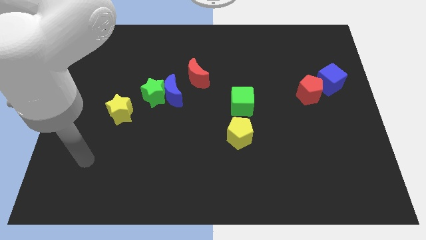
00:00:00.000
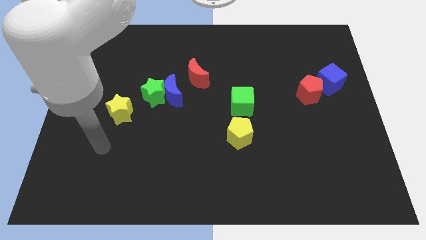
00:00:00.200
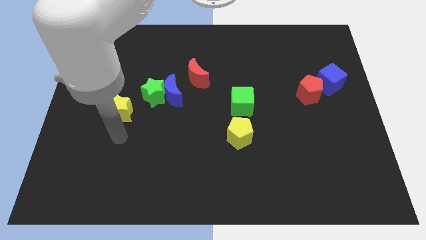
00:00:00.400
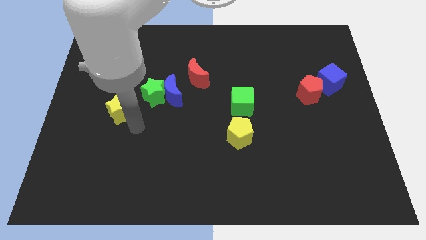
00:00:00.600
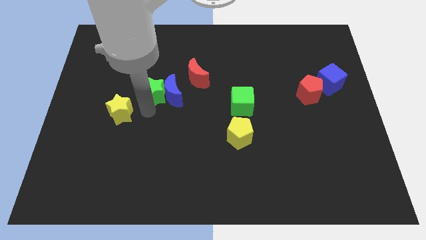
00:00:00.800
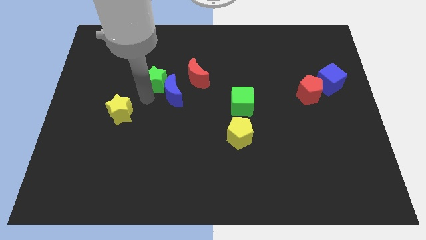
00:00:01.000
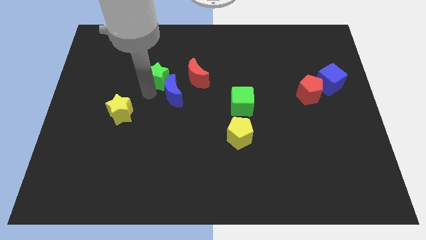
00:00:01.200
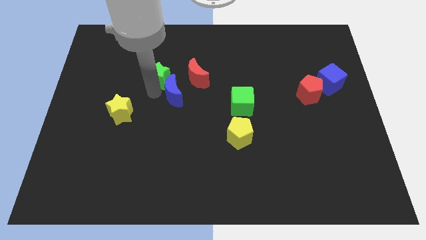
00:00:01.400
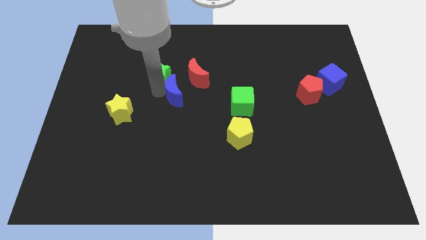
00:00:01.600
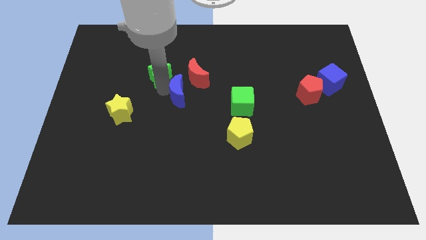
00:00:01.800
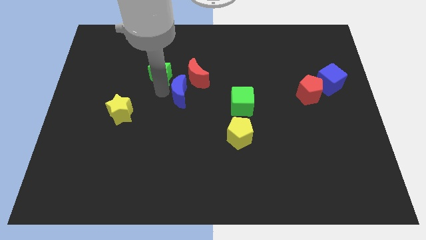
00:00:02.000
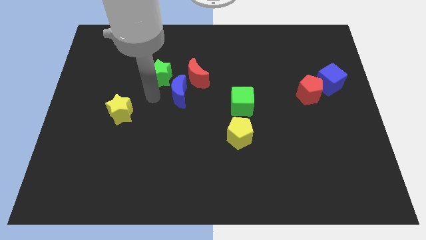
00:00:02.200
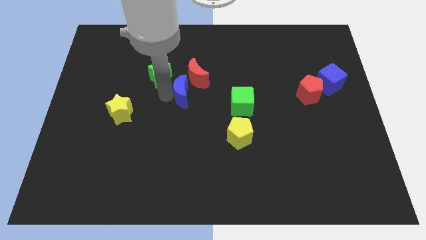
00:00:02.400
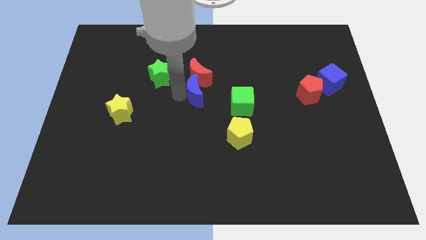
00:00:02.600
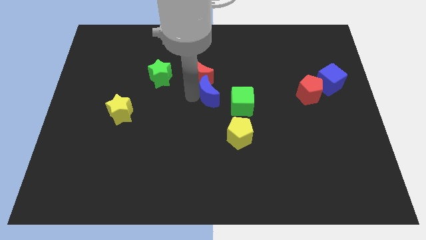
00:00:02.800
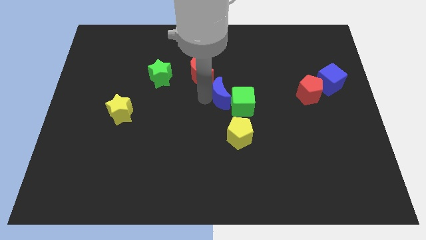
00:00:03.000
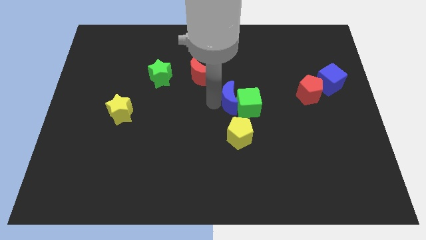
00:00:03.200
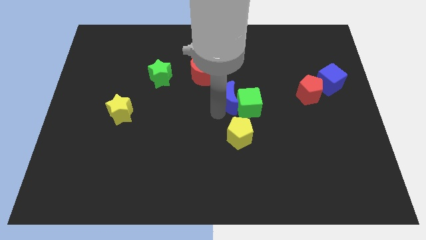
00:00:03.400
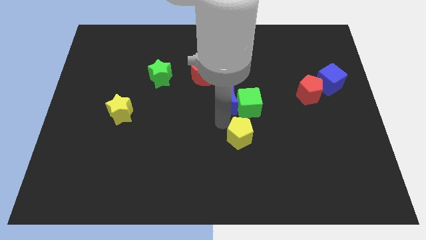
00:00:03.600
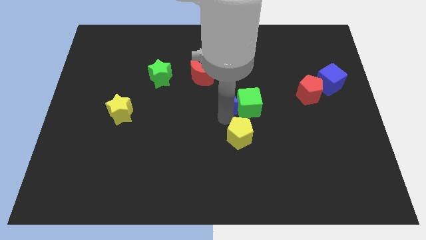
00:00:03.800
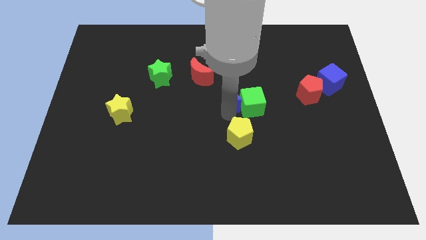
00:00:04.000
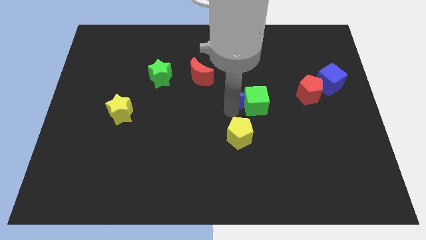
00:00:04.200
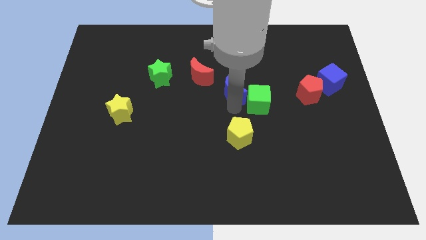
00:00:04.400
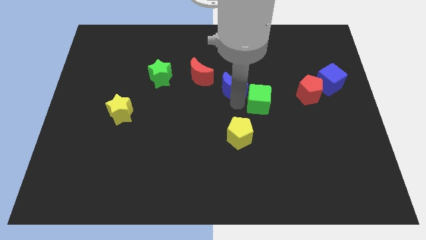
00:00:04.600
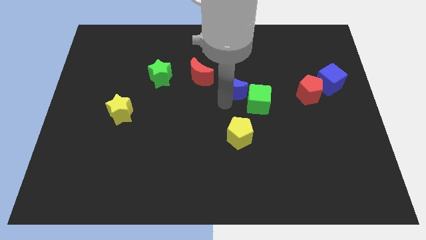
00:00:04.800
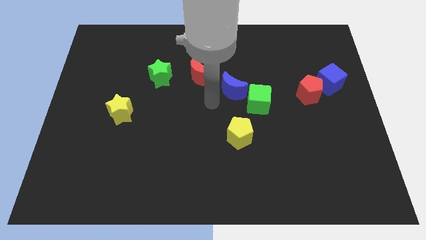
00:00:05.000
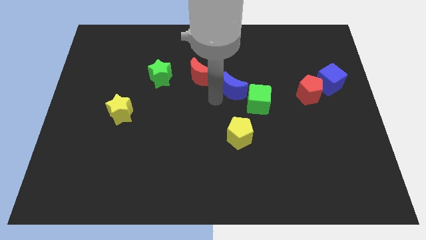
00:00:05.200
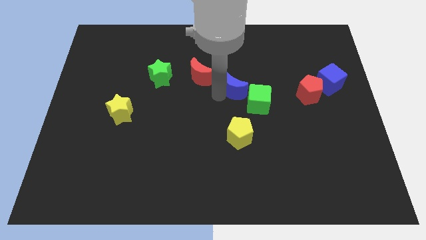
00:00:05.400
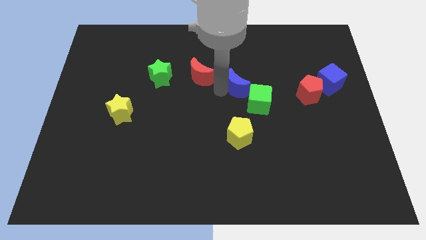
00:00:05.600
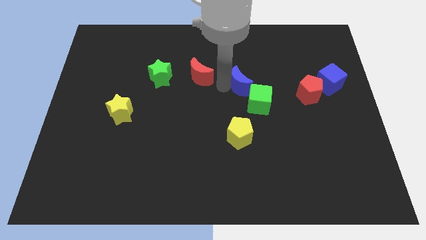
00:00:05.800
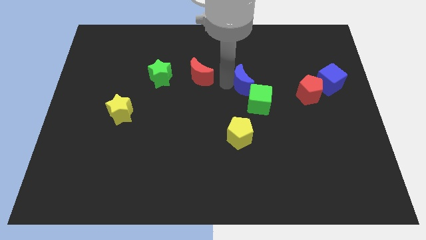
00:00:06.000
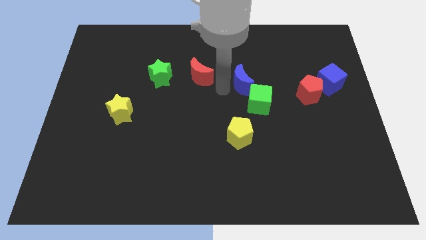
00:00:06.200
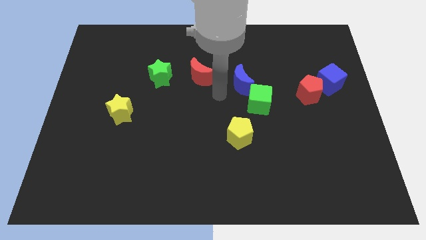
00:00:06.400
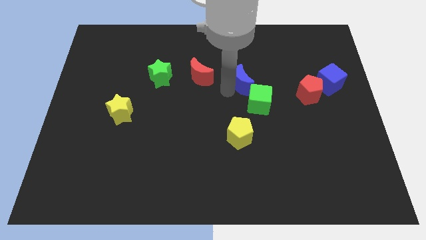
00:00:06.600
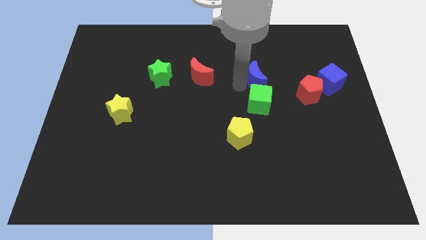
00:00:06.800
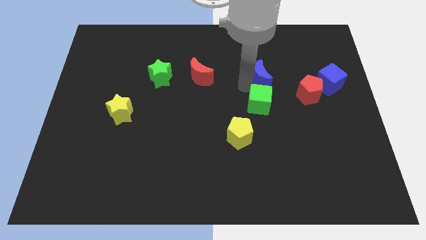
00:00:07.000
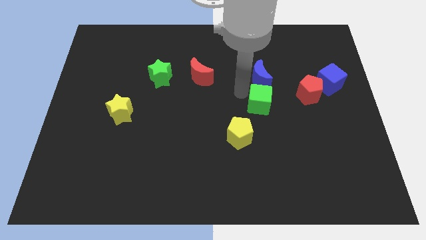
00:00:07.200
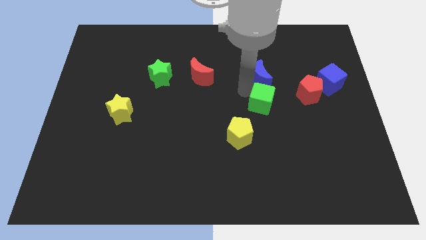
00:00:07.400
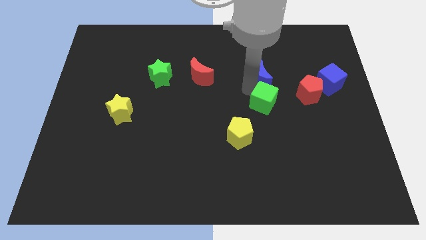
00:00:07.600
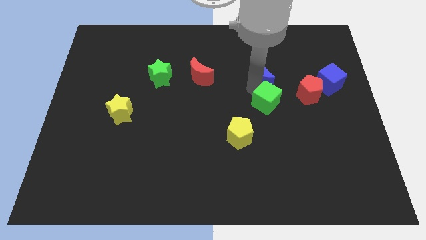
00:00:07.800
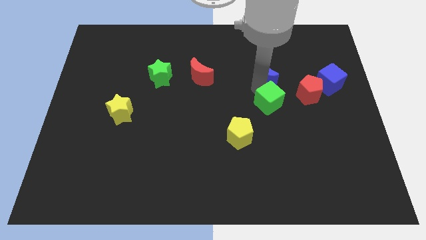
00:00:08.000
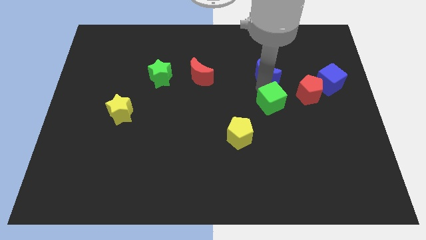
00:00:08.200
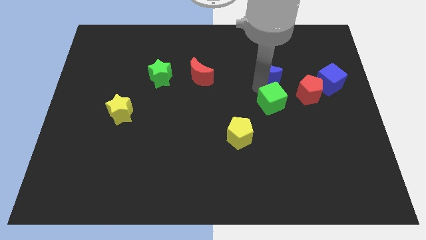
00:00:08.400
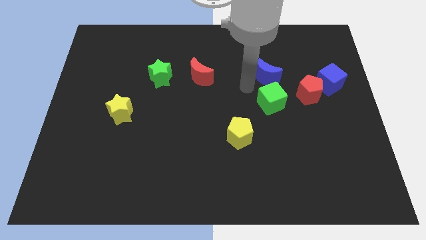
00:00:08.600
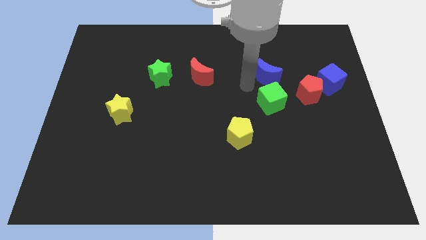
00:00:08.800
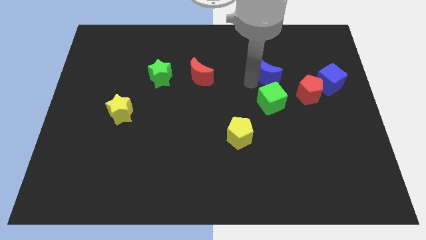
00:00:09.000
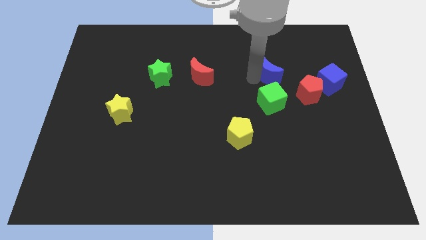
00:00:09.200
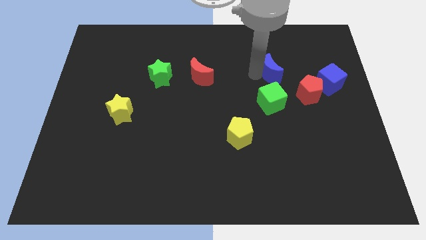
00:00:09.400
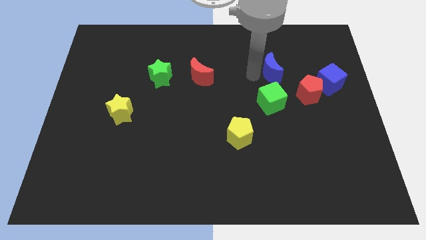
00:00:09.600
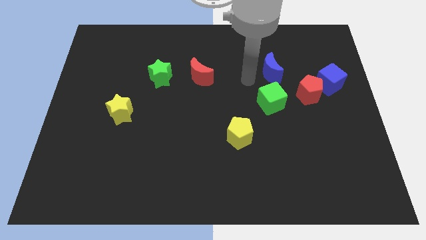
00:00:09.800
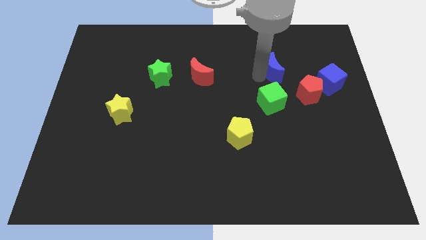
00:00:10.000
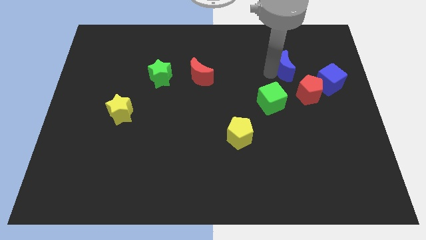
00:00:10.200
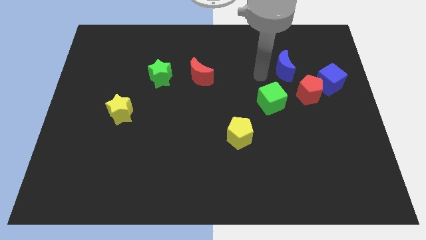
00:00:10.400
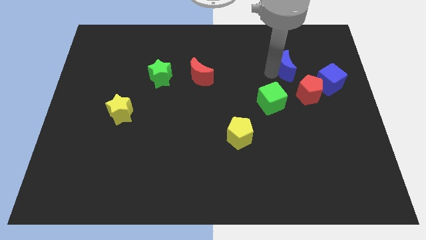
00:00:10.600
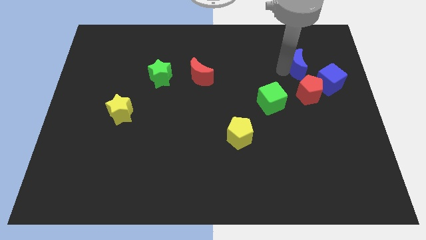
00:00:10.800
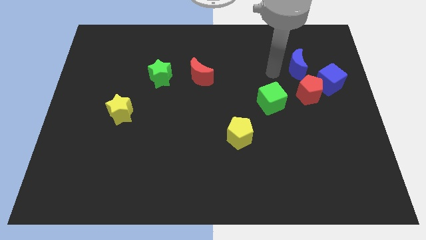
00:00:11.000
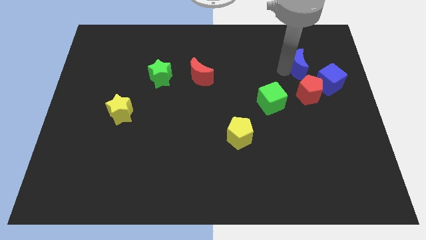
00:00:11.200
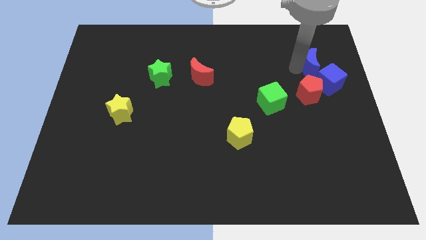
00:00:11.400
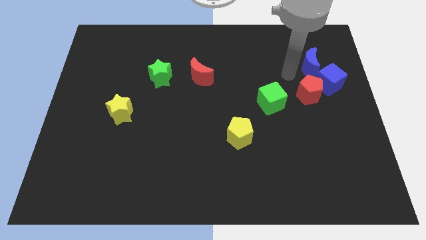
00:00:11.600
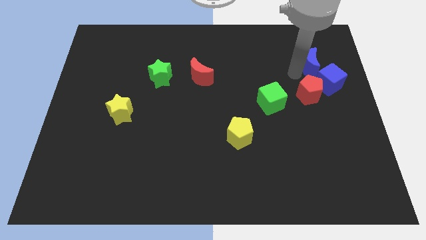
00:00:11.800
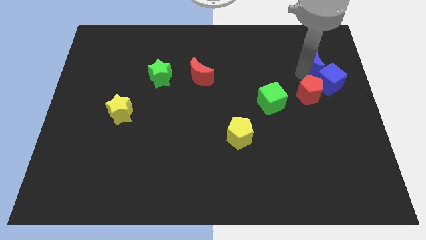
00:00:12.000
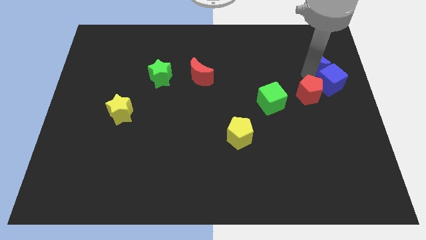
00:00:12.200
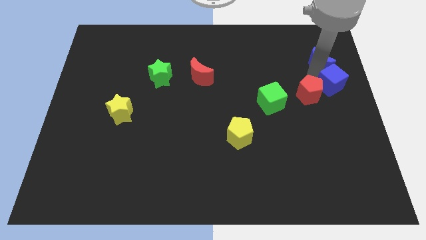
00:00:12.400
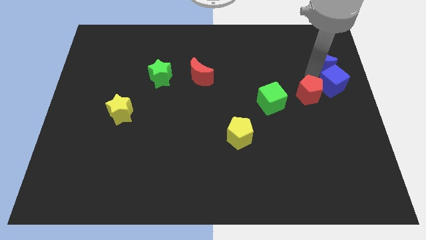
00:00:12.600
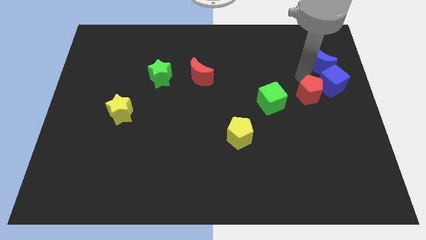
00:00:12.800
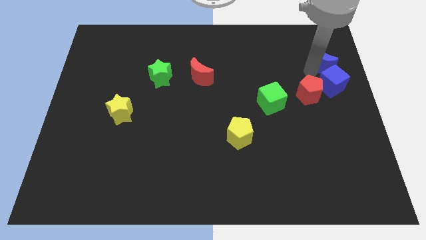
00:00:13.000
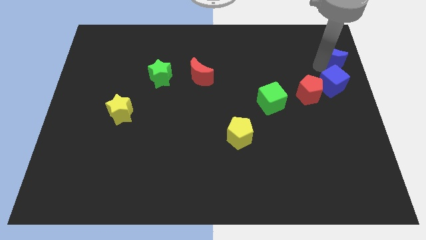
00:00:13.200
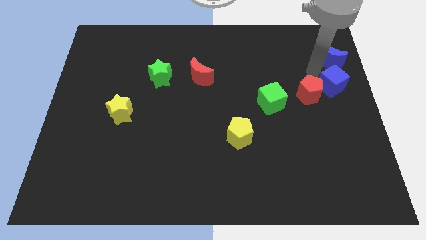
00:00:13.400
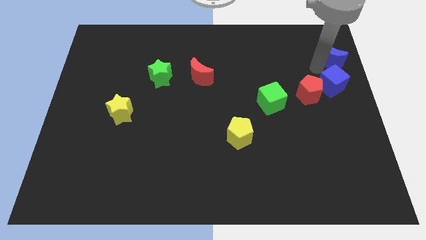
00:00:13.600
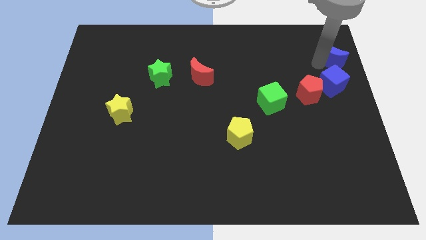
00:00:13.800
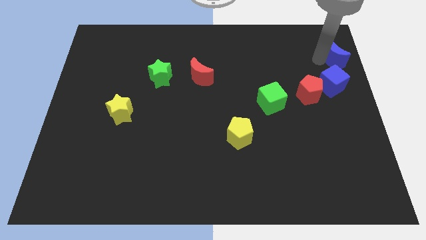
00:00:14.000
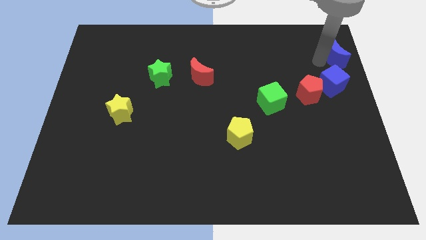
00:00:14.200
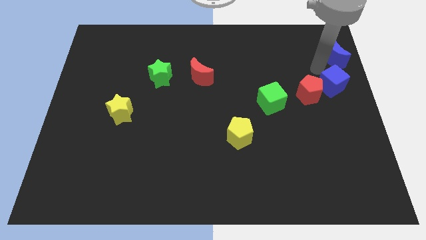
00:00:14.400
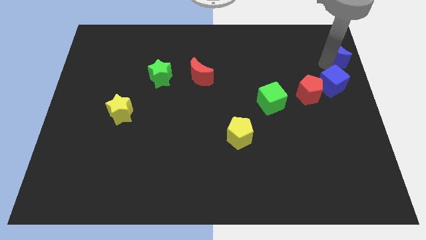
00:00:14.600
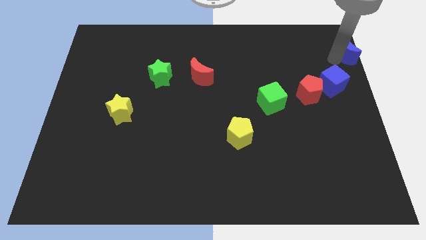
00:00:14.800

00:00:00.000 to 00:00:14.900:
put the blue moon to the top right of the board
